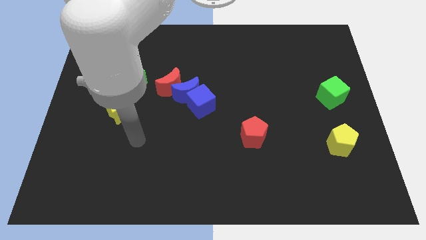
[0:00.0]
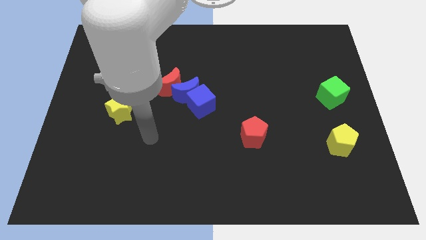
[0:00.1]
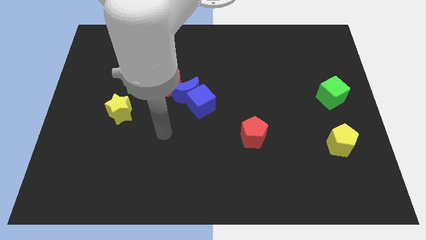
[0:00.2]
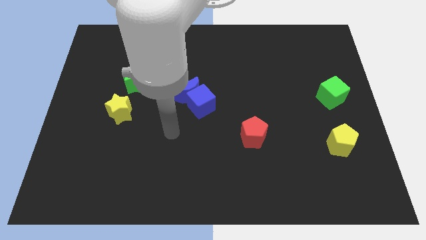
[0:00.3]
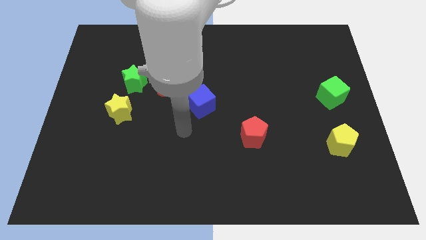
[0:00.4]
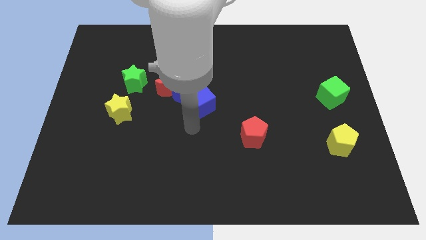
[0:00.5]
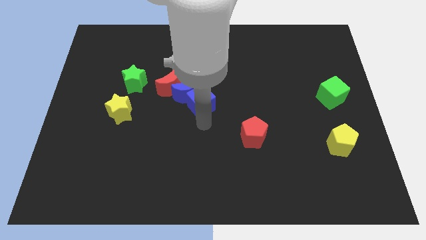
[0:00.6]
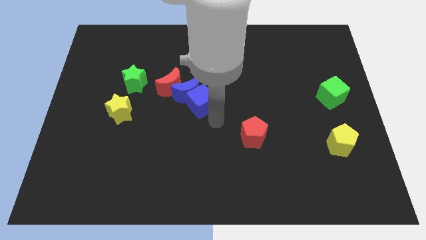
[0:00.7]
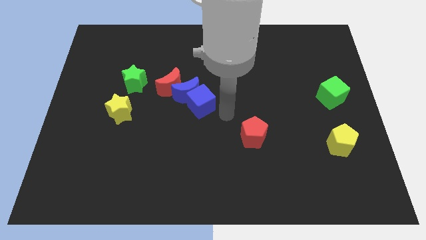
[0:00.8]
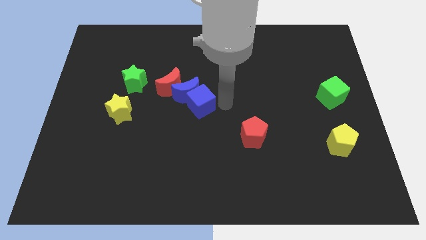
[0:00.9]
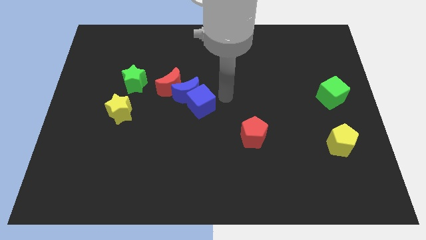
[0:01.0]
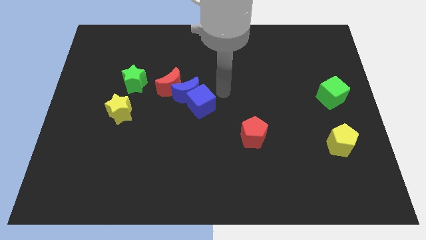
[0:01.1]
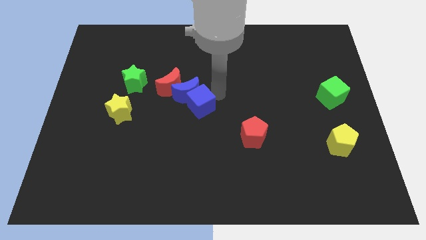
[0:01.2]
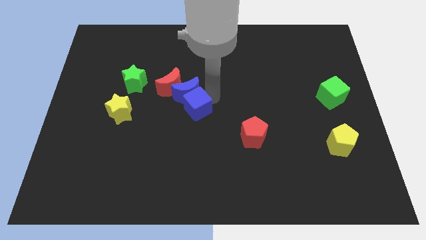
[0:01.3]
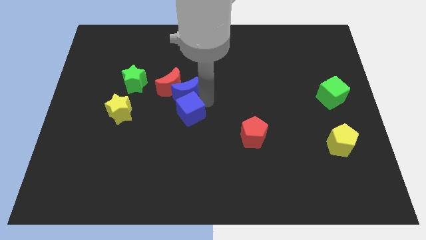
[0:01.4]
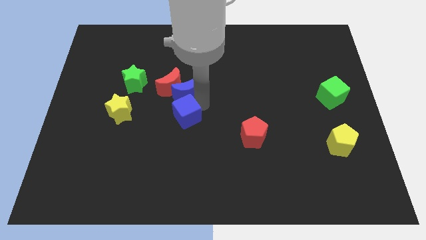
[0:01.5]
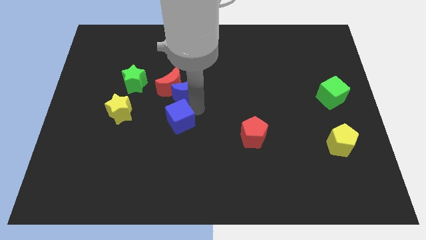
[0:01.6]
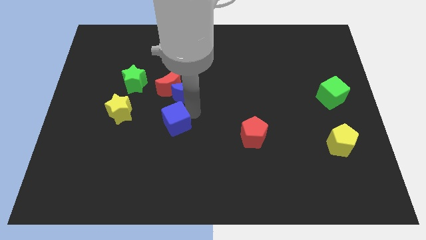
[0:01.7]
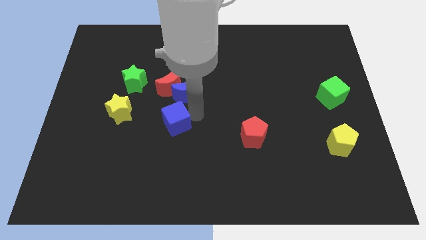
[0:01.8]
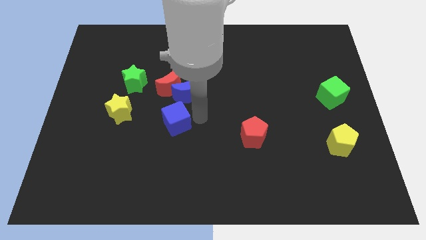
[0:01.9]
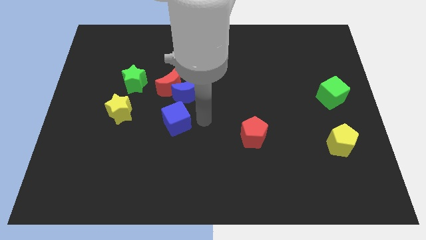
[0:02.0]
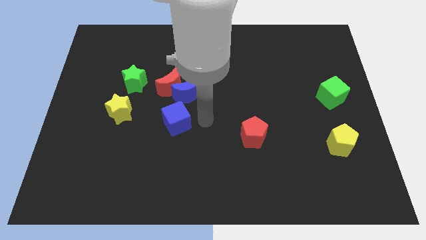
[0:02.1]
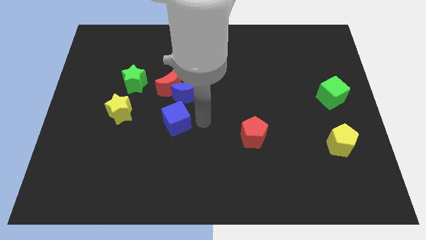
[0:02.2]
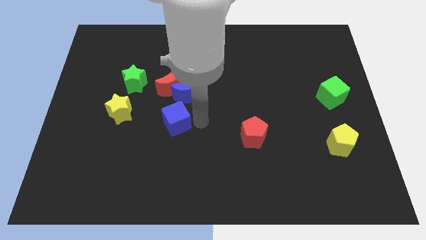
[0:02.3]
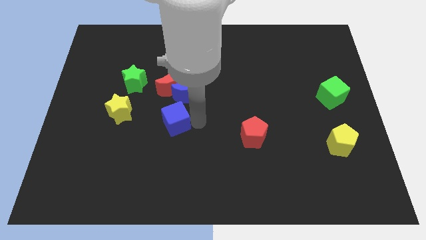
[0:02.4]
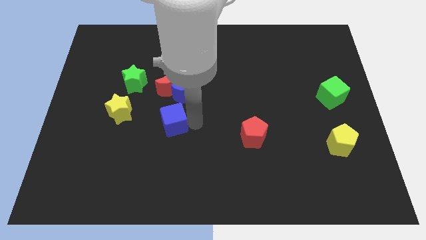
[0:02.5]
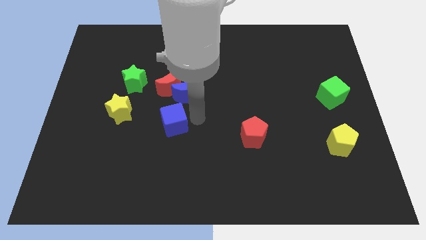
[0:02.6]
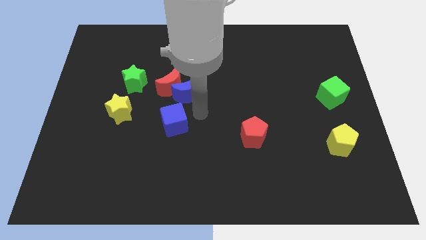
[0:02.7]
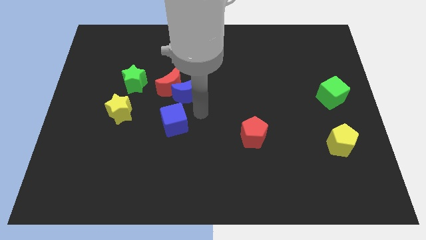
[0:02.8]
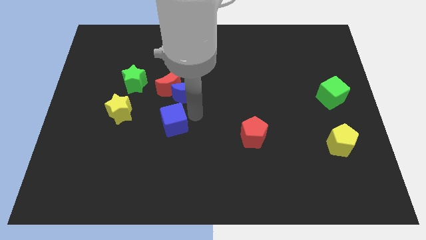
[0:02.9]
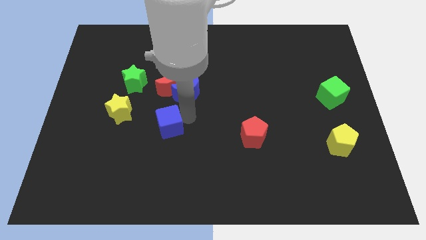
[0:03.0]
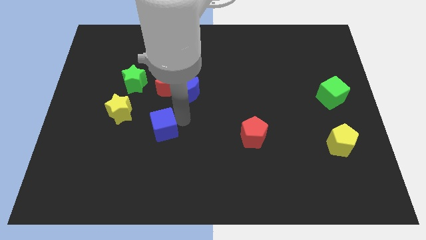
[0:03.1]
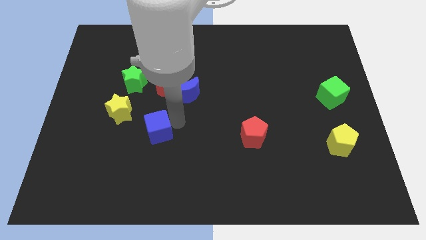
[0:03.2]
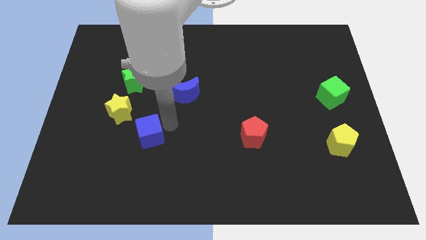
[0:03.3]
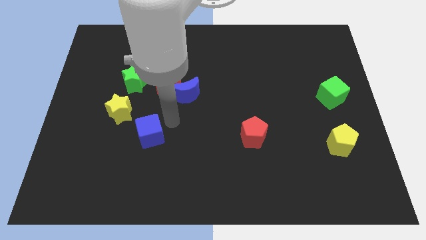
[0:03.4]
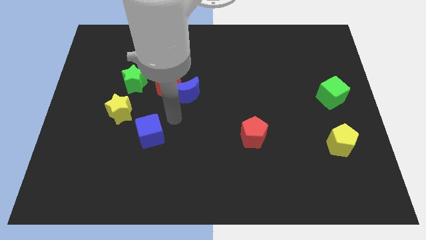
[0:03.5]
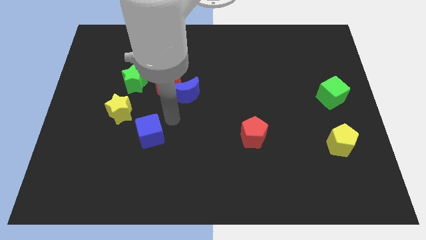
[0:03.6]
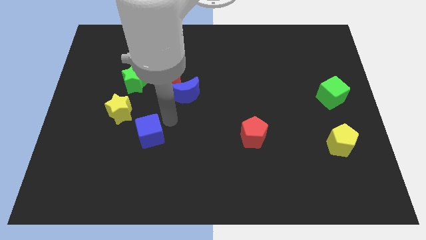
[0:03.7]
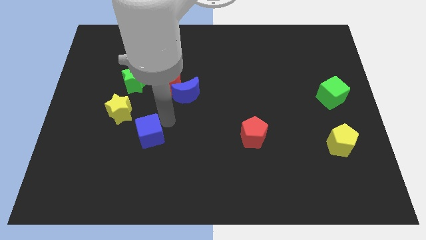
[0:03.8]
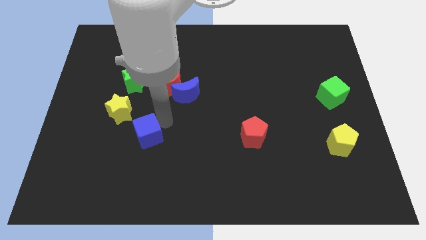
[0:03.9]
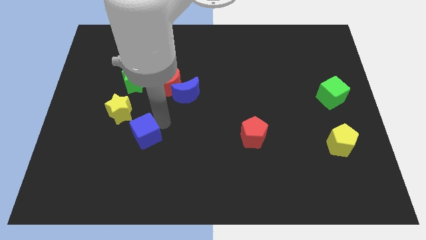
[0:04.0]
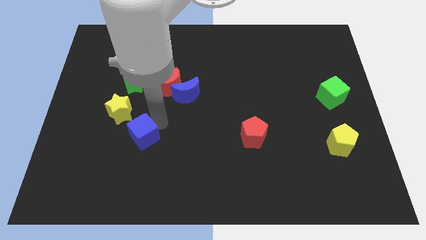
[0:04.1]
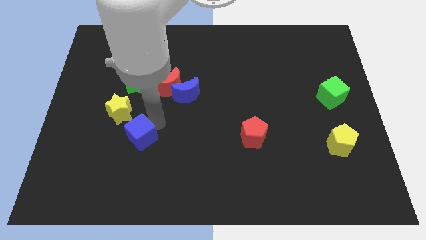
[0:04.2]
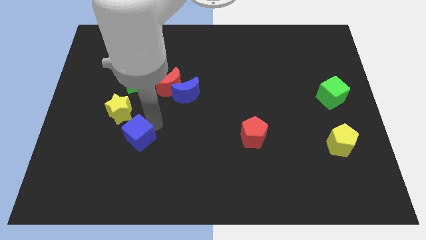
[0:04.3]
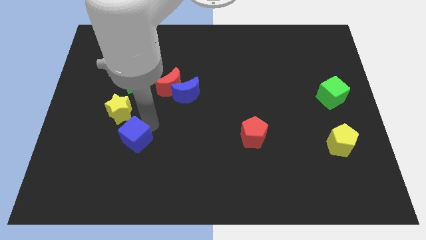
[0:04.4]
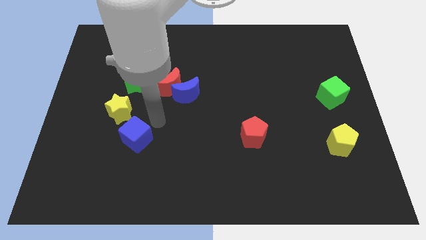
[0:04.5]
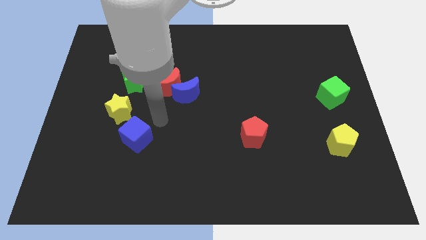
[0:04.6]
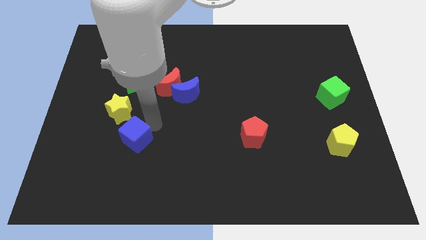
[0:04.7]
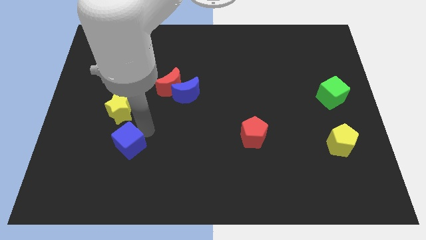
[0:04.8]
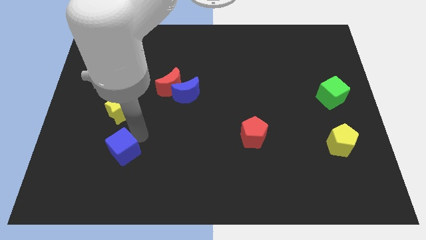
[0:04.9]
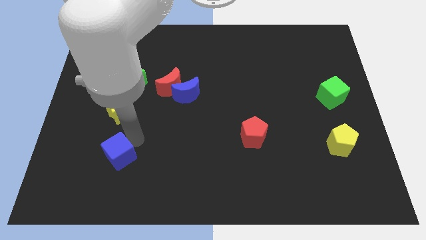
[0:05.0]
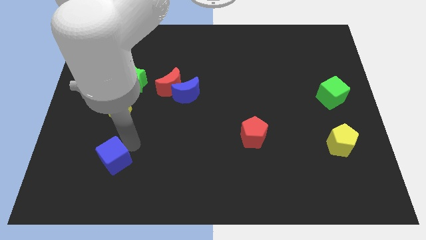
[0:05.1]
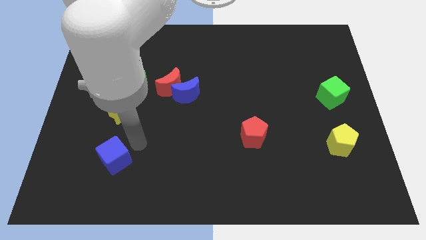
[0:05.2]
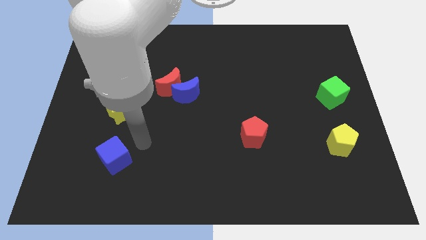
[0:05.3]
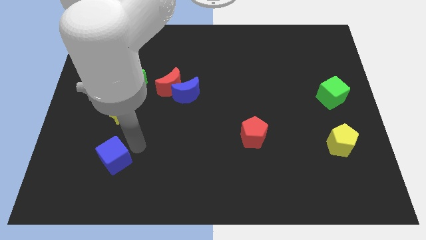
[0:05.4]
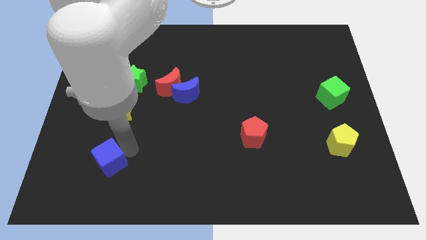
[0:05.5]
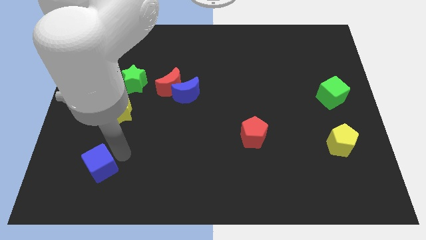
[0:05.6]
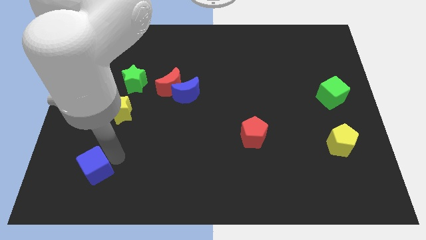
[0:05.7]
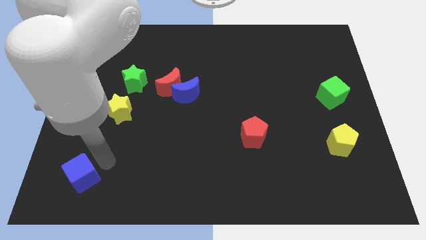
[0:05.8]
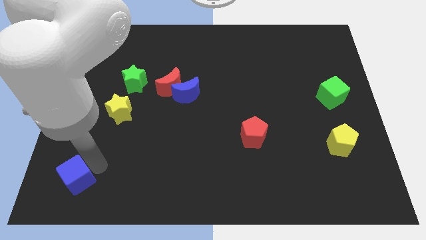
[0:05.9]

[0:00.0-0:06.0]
push the blue cube to the lower left corner

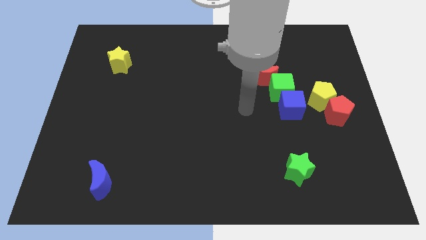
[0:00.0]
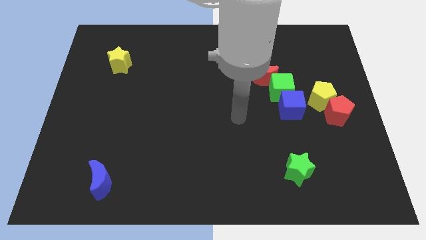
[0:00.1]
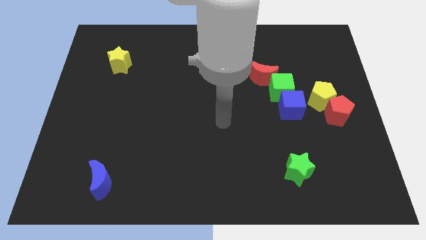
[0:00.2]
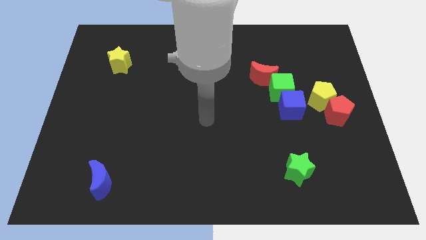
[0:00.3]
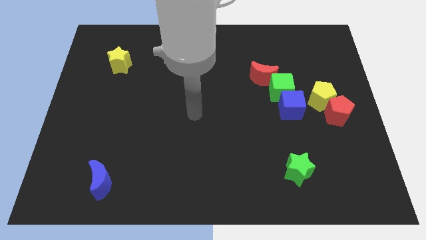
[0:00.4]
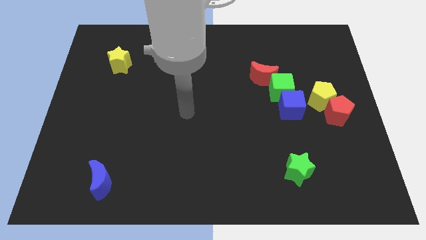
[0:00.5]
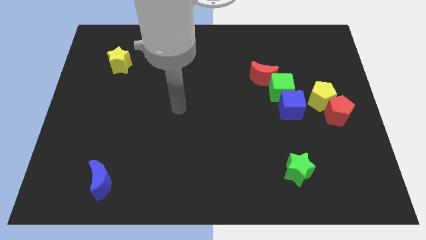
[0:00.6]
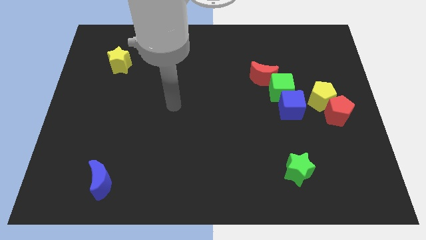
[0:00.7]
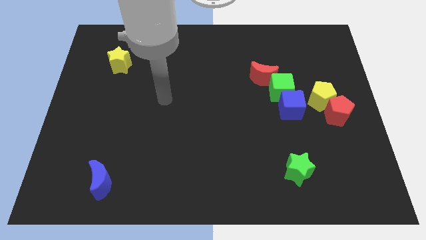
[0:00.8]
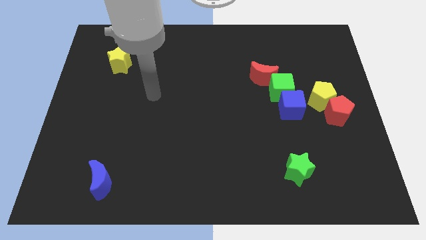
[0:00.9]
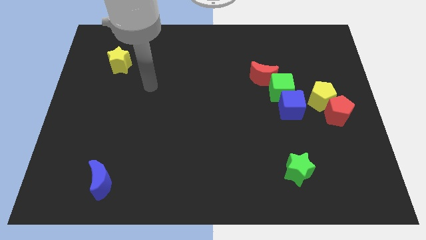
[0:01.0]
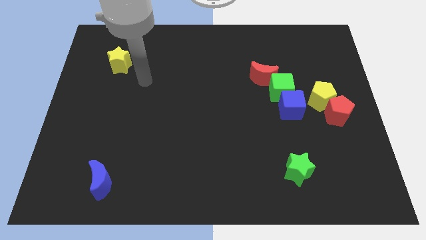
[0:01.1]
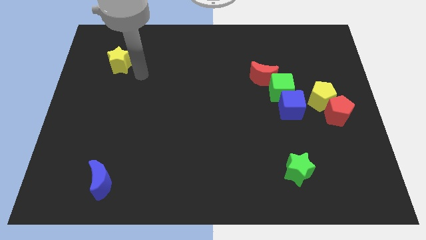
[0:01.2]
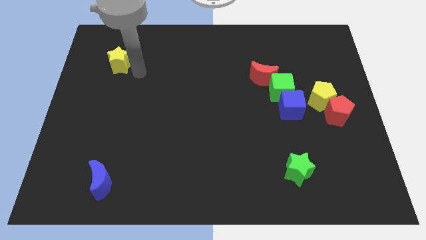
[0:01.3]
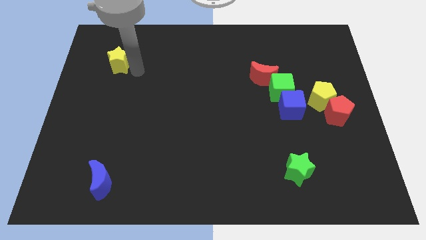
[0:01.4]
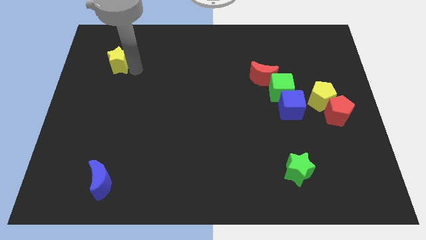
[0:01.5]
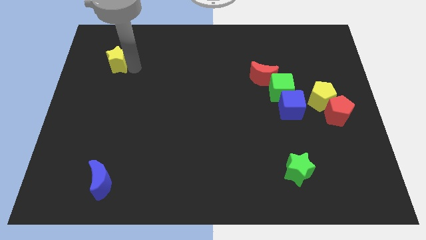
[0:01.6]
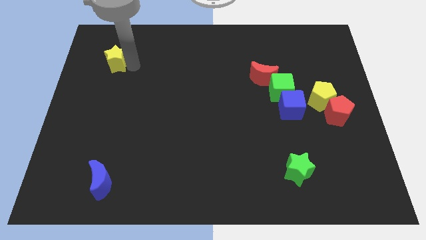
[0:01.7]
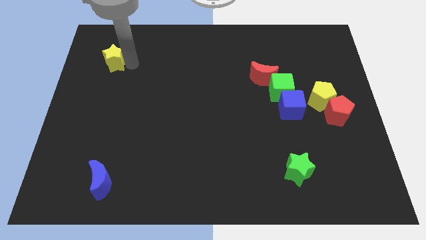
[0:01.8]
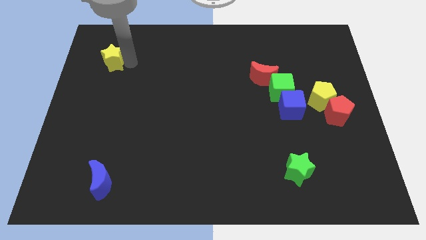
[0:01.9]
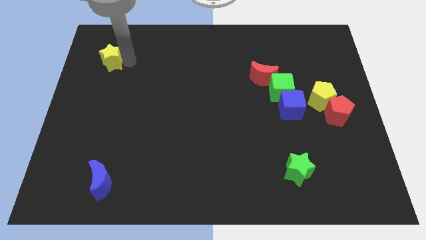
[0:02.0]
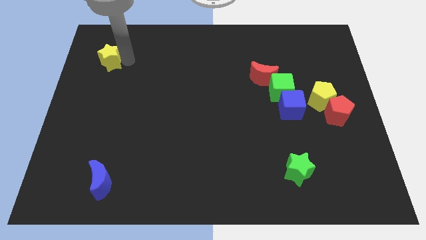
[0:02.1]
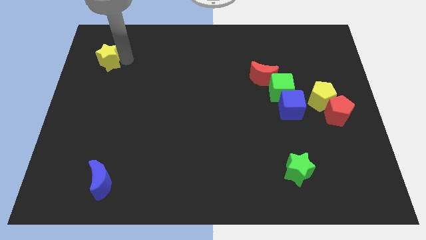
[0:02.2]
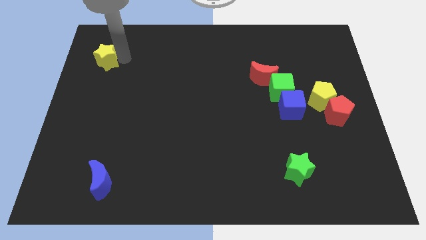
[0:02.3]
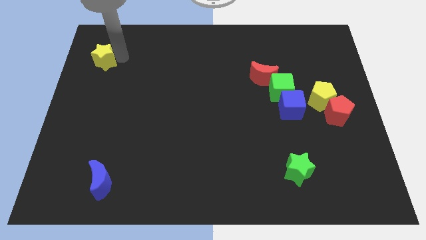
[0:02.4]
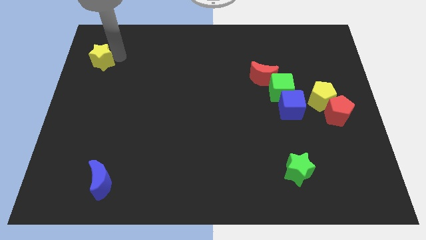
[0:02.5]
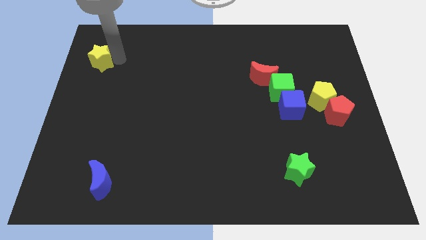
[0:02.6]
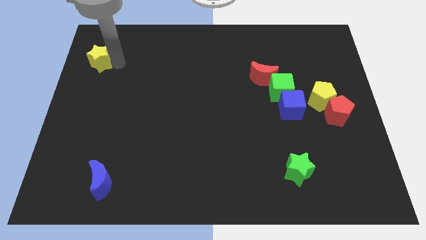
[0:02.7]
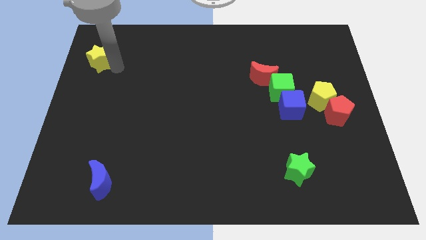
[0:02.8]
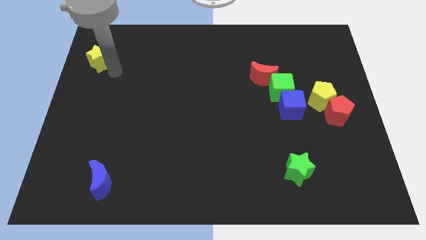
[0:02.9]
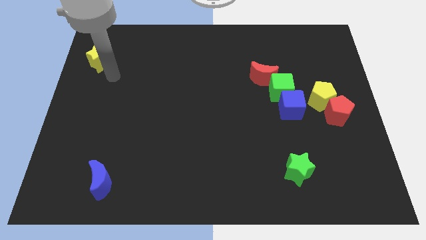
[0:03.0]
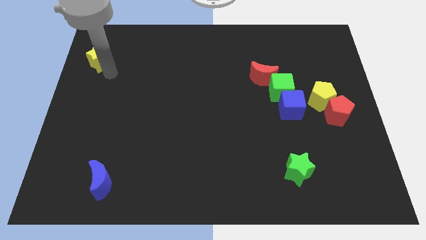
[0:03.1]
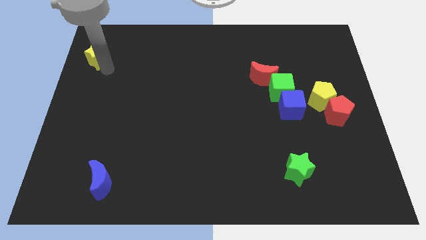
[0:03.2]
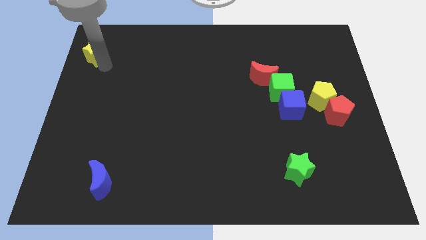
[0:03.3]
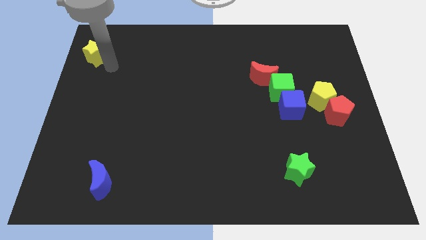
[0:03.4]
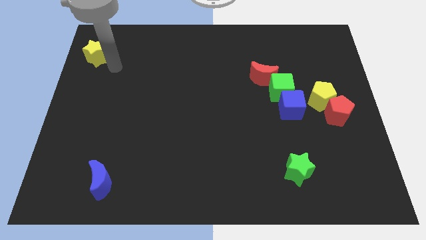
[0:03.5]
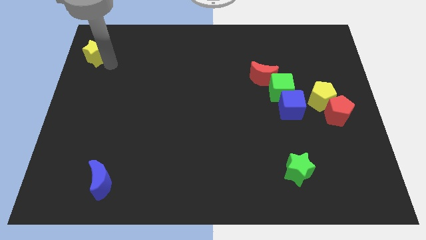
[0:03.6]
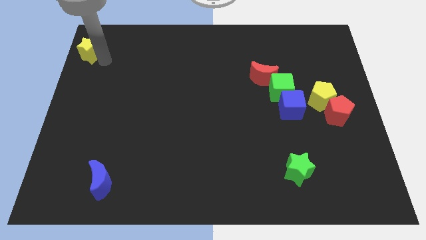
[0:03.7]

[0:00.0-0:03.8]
move the yellow star to the top left
